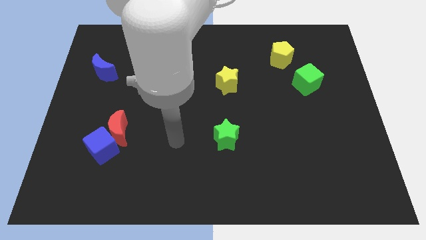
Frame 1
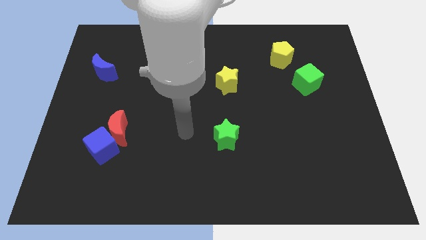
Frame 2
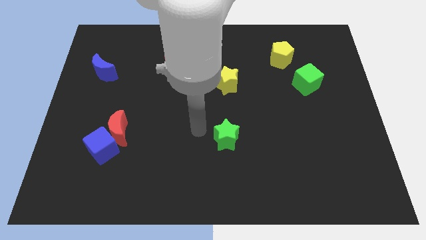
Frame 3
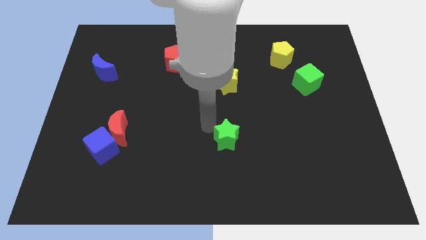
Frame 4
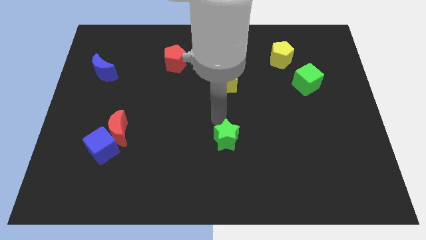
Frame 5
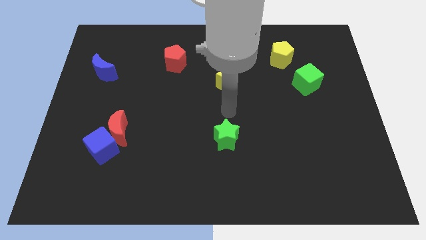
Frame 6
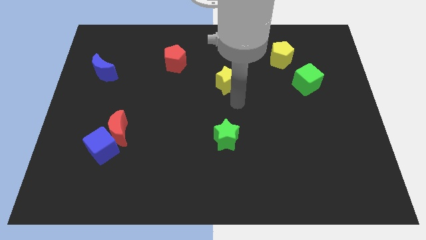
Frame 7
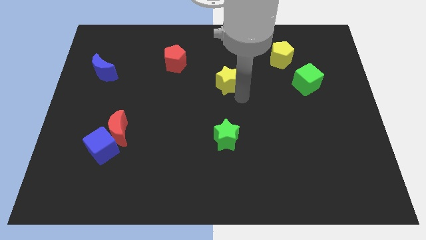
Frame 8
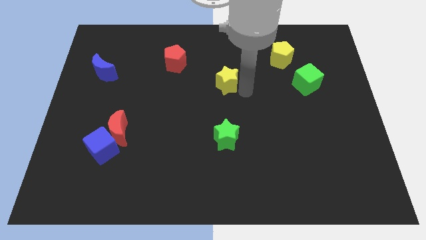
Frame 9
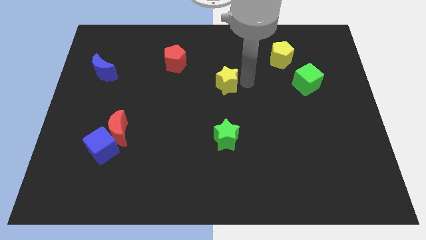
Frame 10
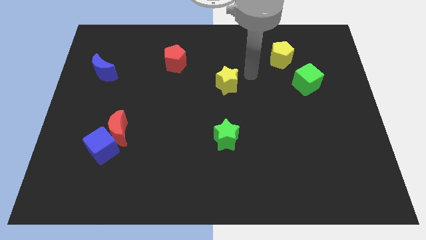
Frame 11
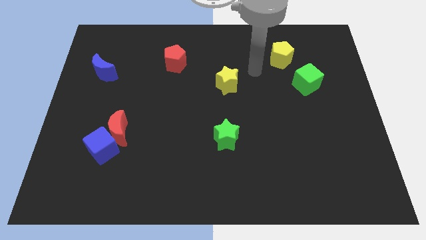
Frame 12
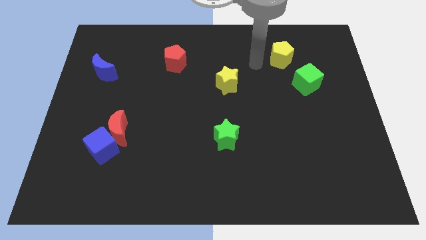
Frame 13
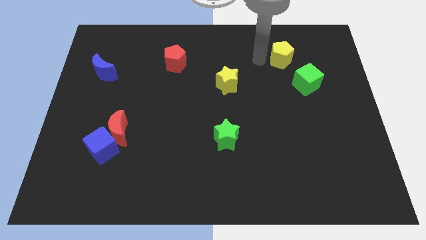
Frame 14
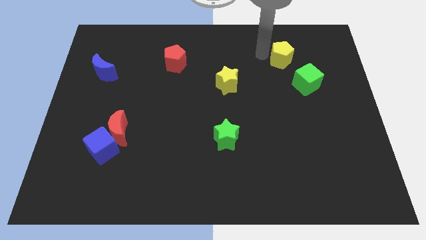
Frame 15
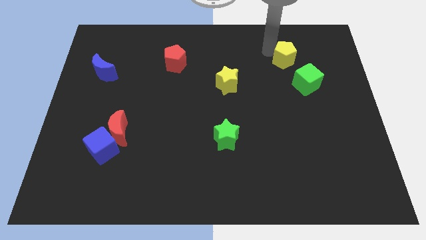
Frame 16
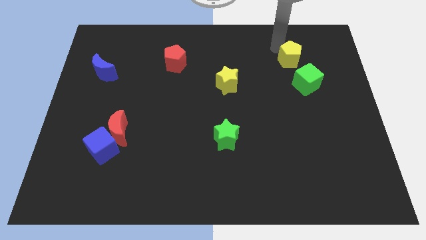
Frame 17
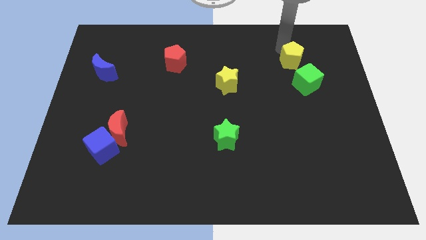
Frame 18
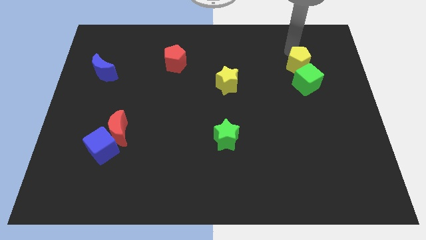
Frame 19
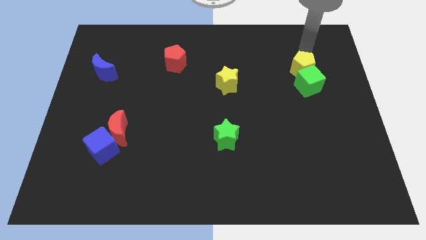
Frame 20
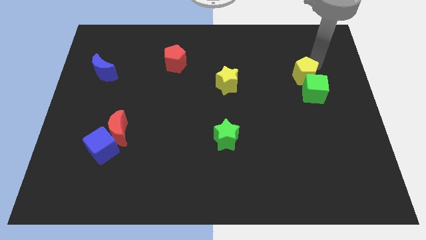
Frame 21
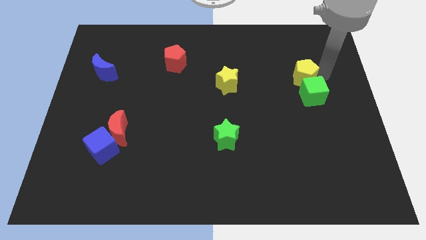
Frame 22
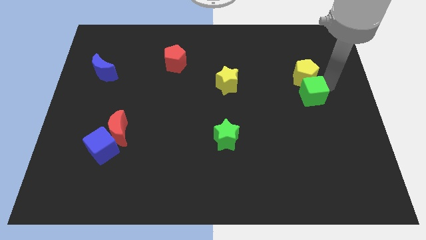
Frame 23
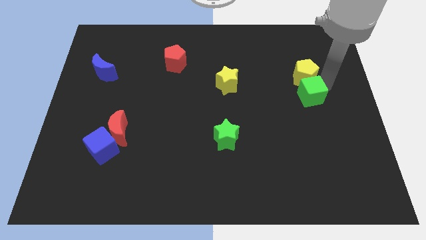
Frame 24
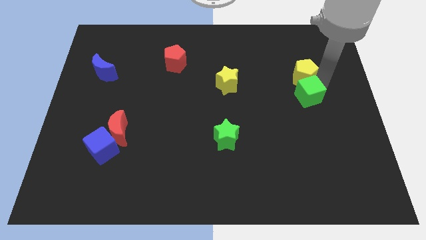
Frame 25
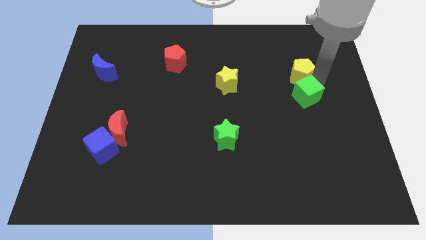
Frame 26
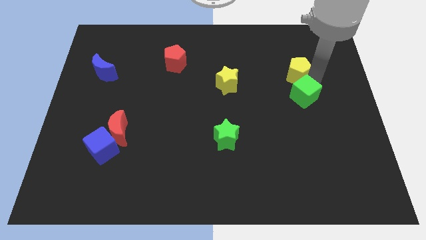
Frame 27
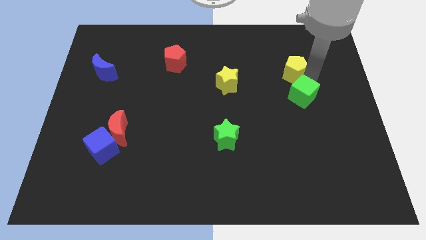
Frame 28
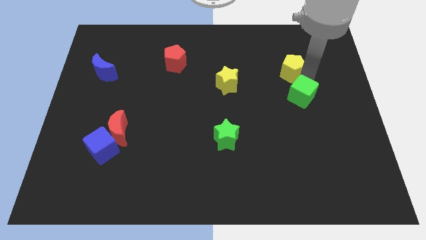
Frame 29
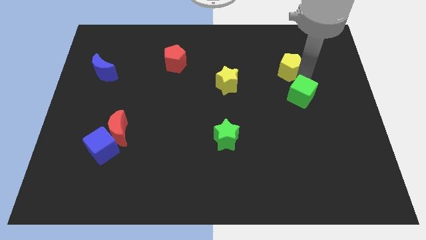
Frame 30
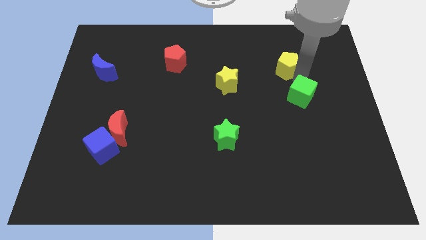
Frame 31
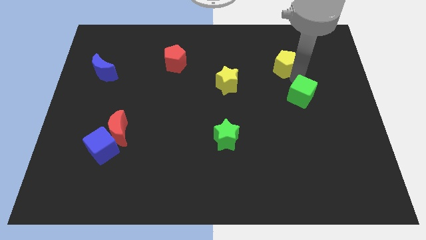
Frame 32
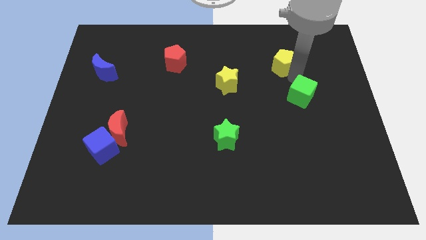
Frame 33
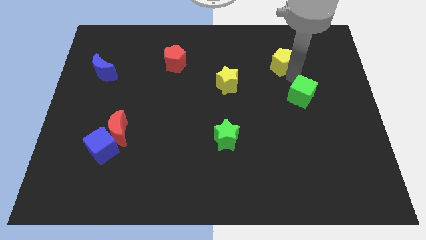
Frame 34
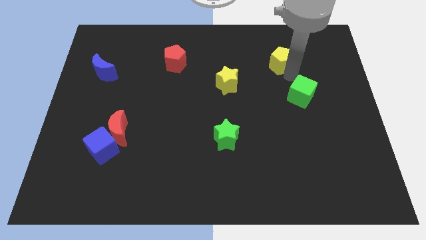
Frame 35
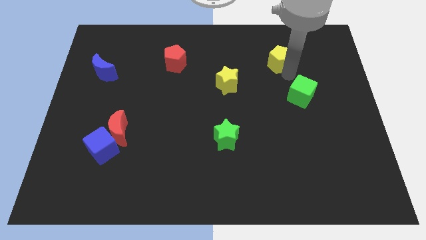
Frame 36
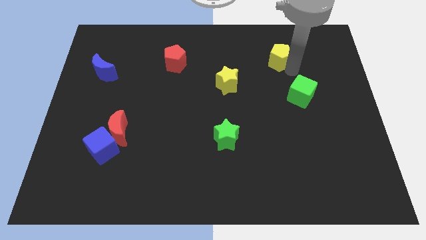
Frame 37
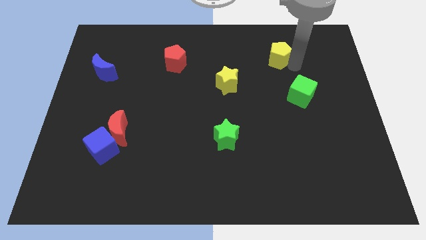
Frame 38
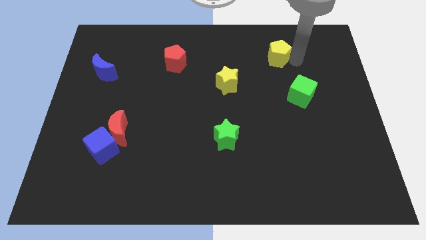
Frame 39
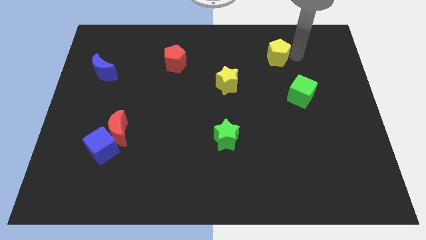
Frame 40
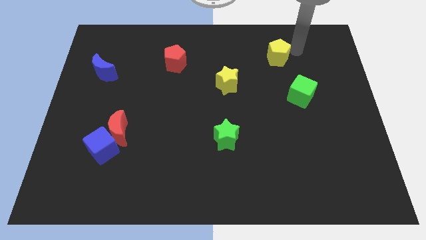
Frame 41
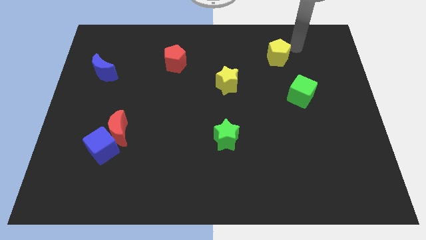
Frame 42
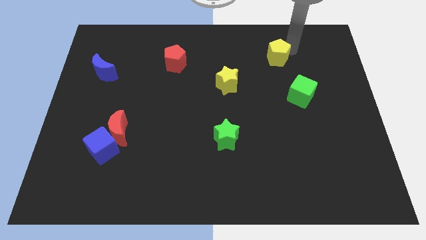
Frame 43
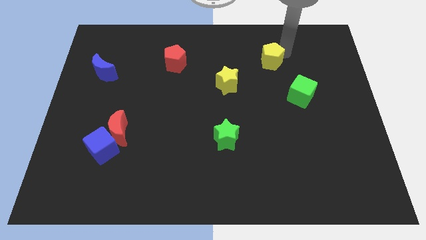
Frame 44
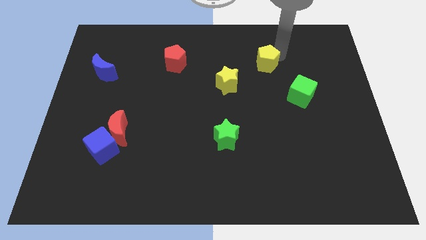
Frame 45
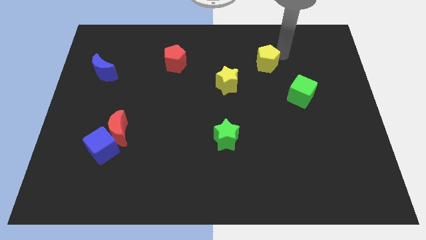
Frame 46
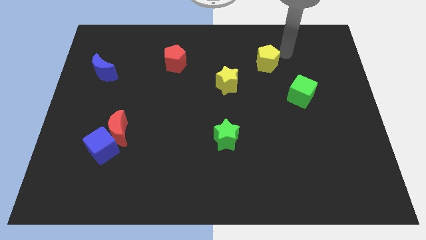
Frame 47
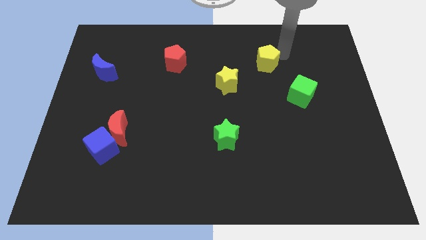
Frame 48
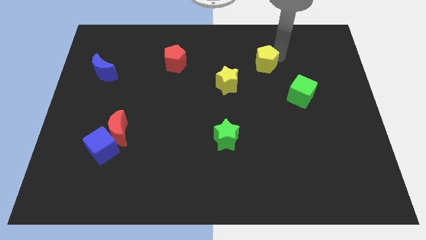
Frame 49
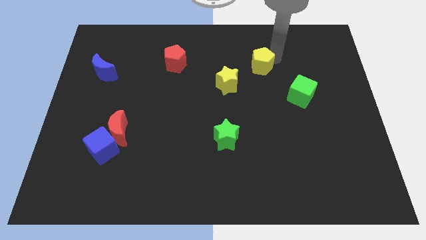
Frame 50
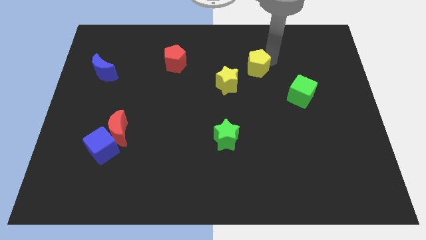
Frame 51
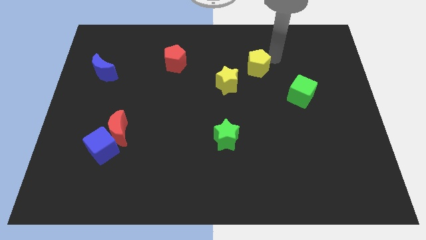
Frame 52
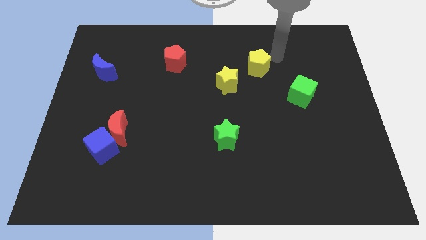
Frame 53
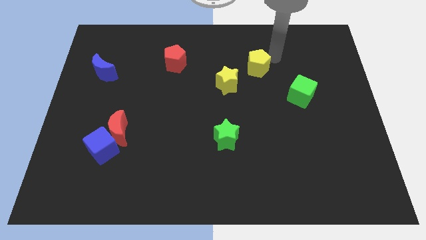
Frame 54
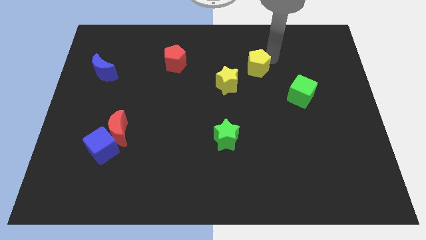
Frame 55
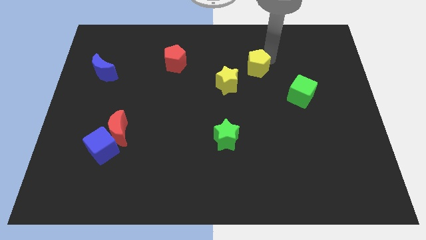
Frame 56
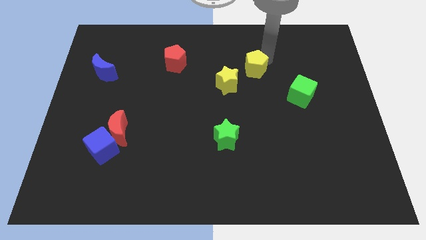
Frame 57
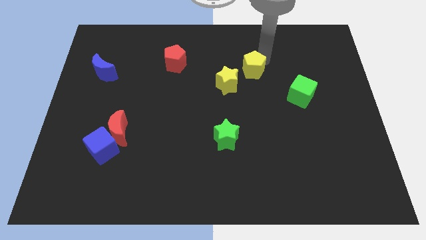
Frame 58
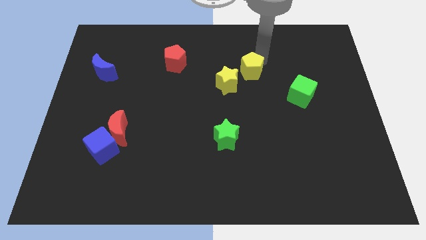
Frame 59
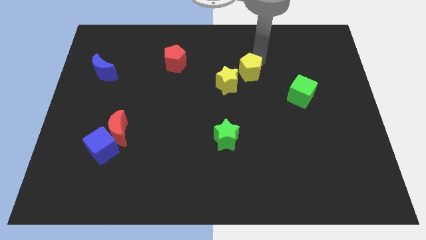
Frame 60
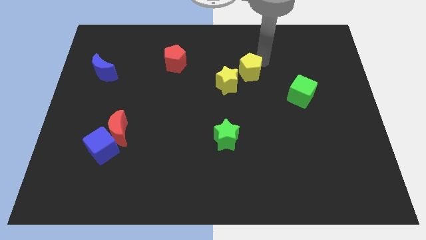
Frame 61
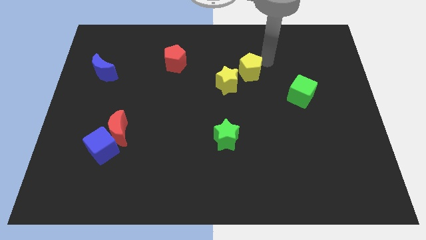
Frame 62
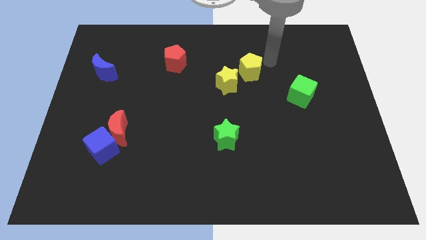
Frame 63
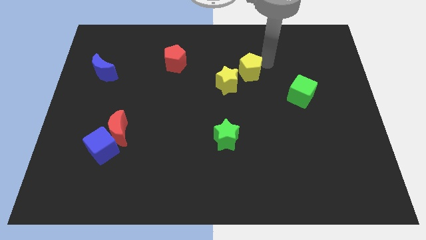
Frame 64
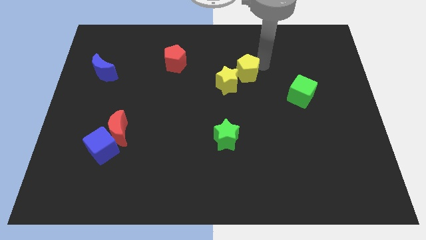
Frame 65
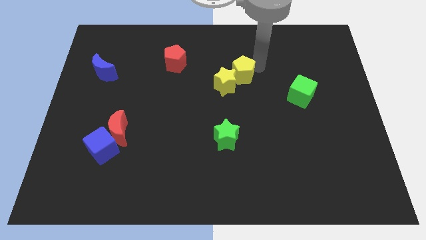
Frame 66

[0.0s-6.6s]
slide the yellow pentagon next to the yellow star

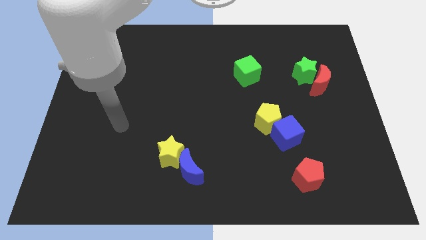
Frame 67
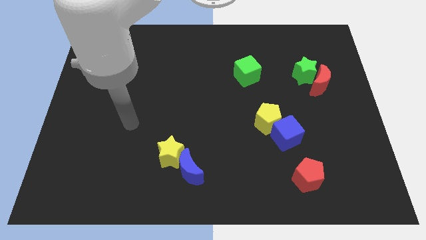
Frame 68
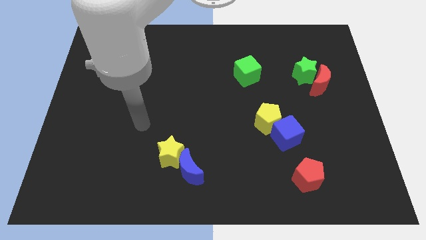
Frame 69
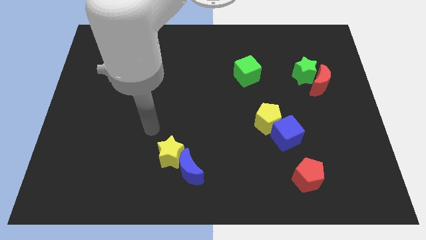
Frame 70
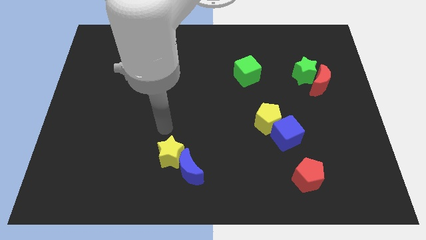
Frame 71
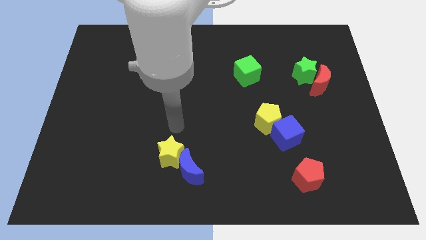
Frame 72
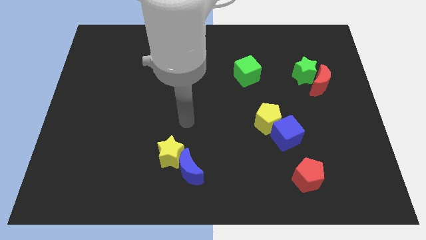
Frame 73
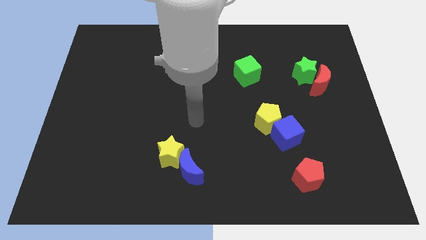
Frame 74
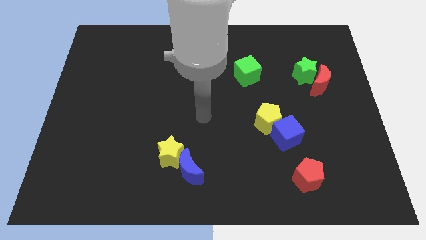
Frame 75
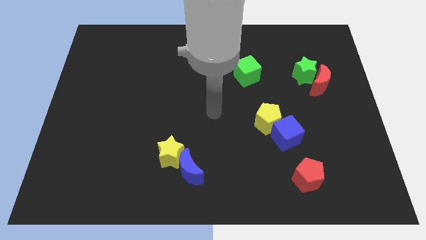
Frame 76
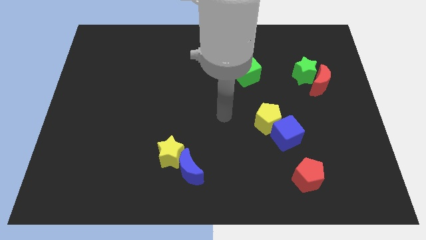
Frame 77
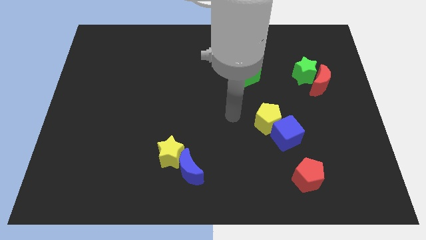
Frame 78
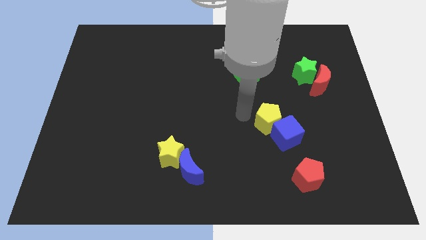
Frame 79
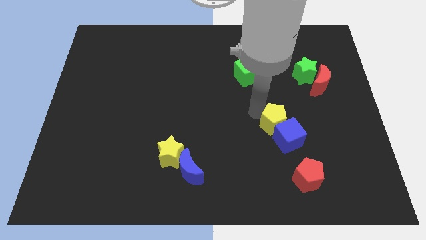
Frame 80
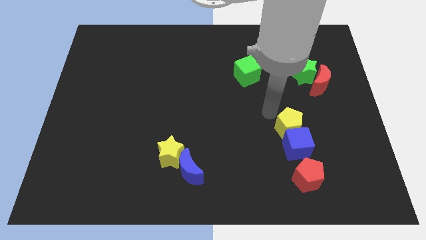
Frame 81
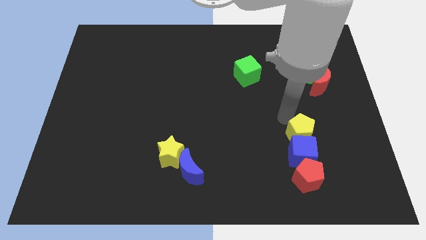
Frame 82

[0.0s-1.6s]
put the blue cube to the red pentagon
